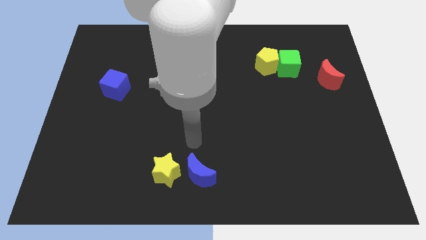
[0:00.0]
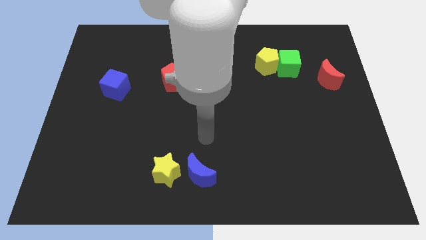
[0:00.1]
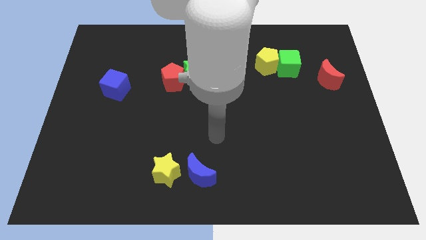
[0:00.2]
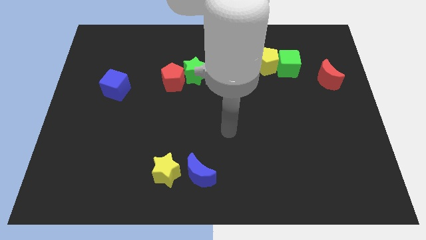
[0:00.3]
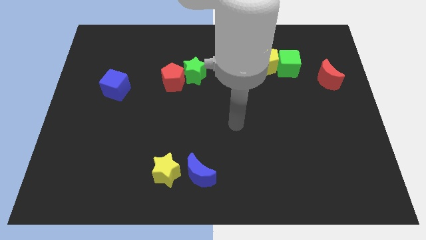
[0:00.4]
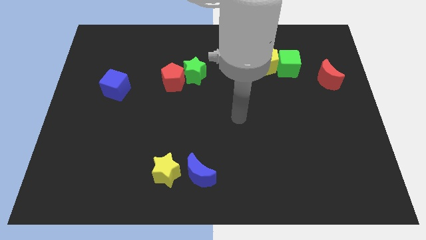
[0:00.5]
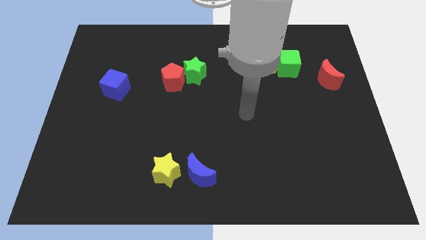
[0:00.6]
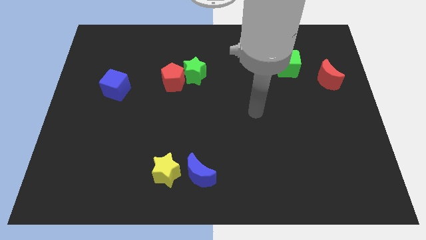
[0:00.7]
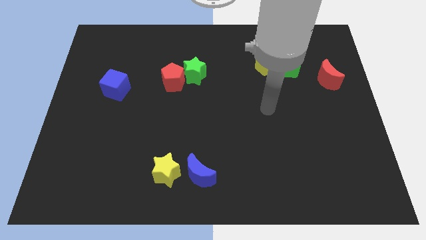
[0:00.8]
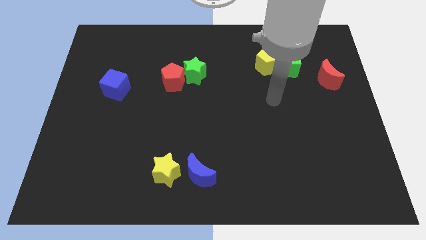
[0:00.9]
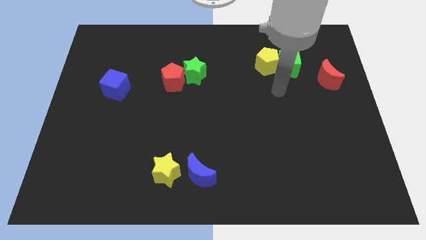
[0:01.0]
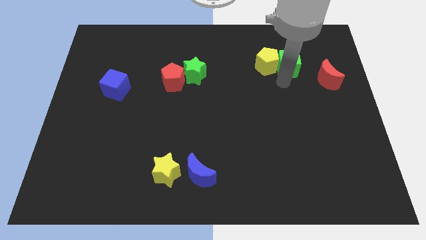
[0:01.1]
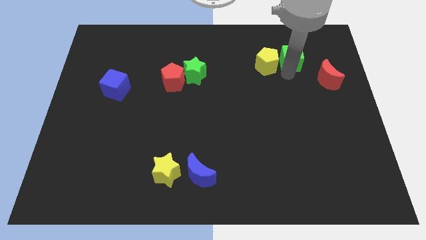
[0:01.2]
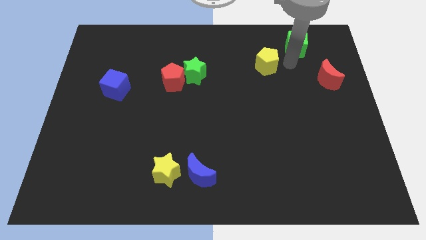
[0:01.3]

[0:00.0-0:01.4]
separate the yellow pentagon from the green cube

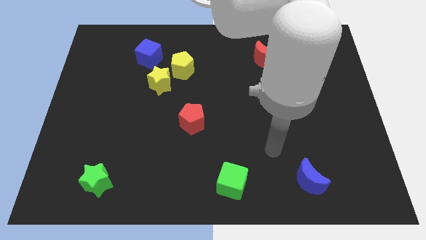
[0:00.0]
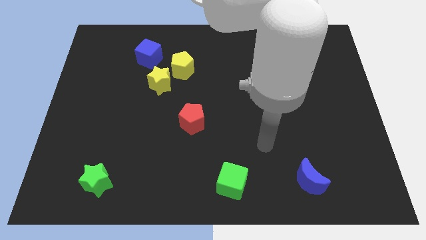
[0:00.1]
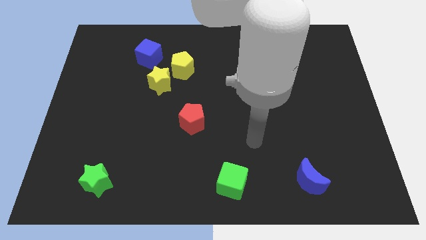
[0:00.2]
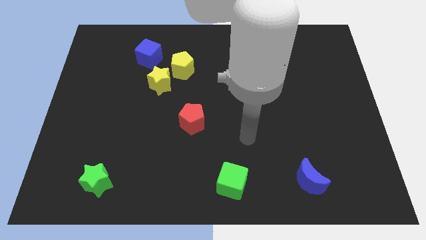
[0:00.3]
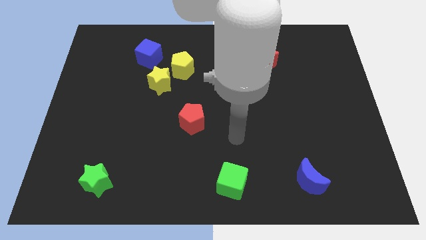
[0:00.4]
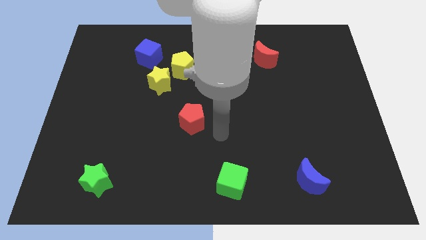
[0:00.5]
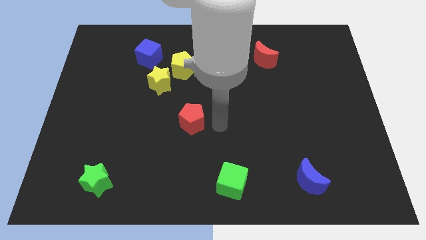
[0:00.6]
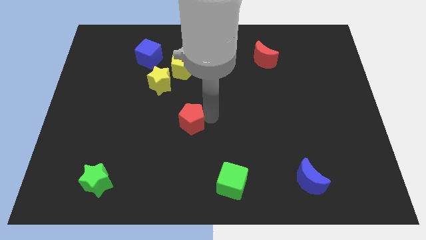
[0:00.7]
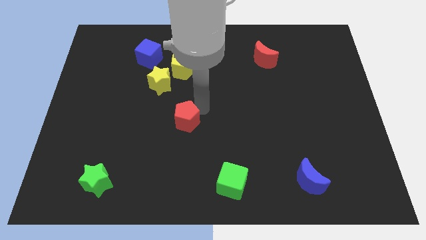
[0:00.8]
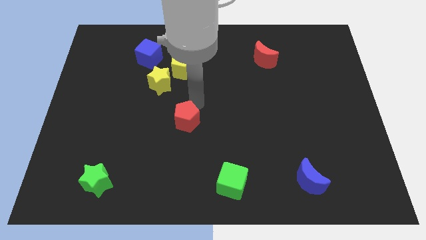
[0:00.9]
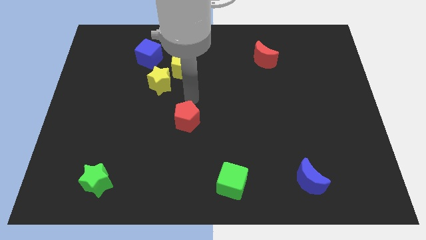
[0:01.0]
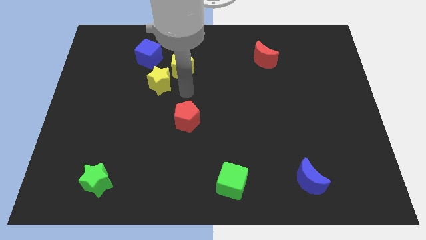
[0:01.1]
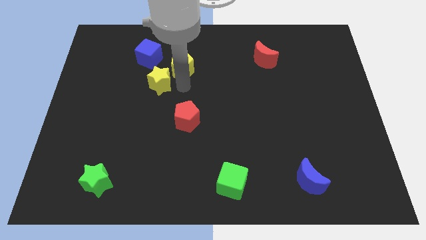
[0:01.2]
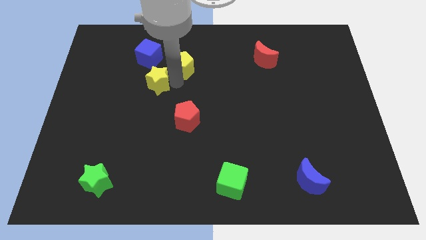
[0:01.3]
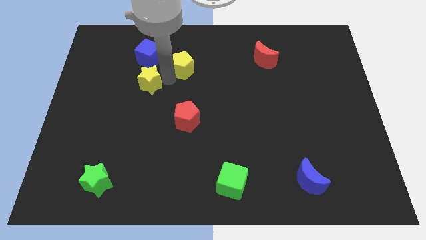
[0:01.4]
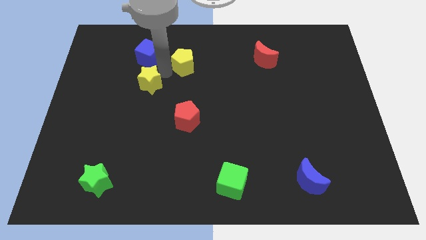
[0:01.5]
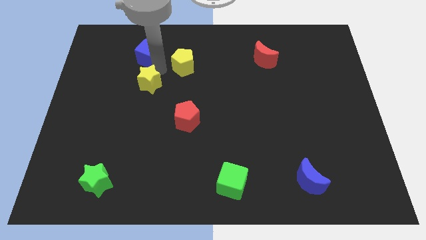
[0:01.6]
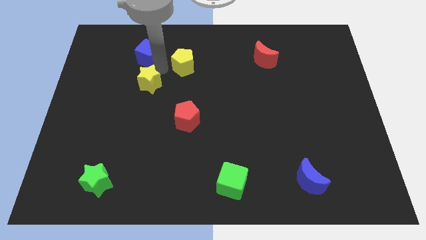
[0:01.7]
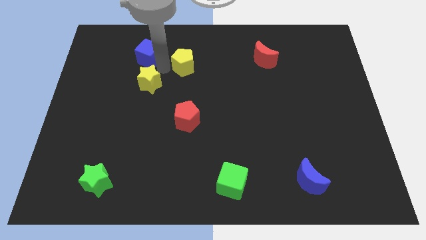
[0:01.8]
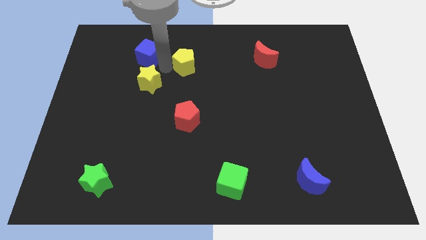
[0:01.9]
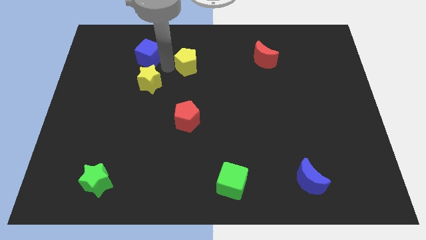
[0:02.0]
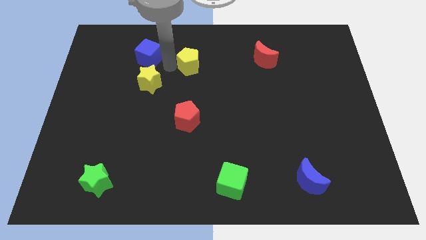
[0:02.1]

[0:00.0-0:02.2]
separate the yellow pentagon from the yellow star and blue cube

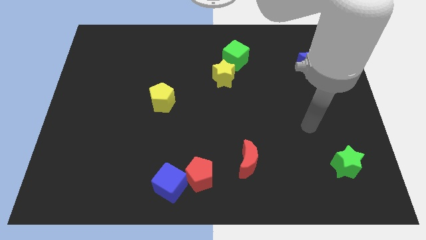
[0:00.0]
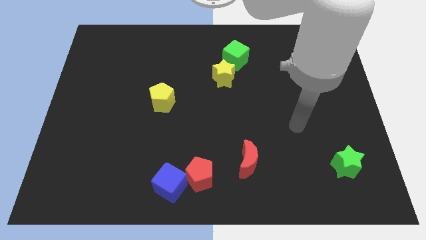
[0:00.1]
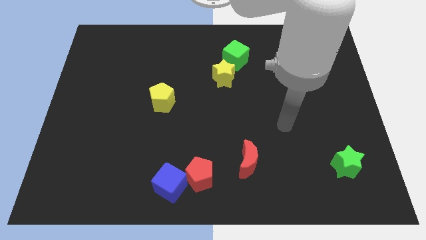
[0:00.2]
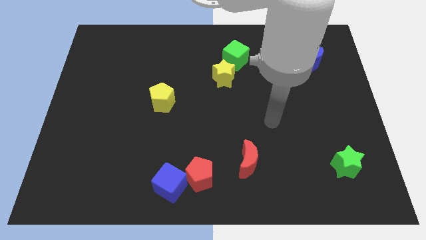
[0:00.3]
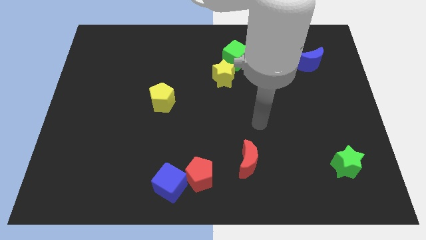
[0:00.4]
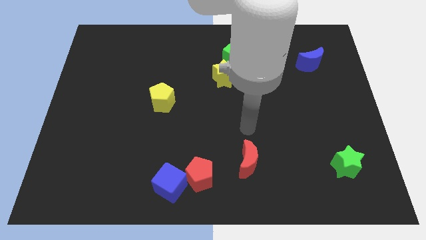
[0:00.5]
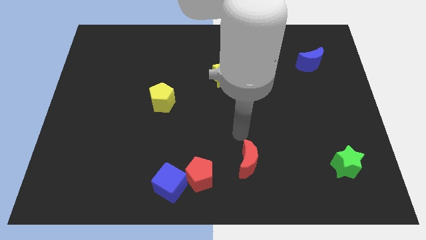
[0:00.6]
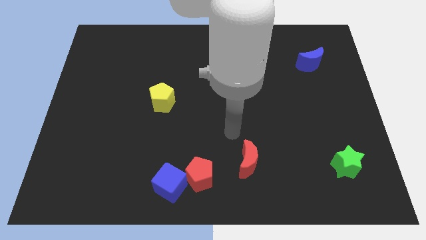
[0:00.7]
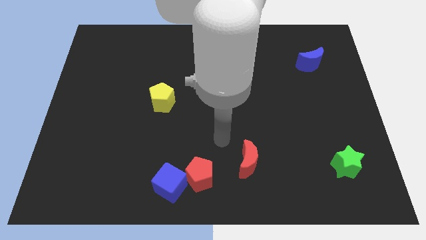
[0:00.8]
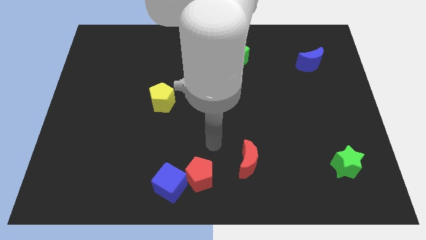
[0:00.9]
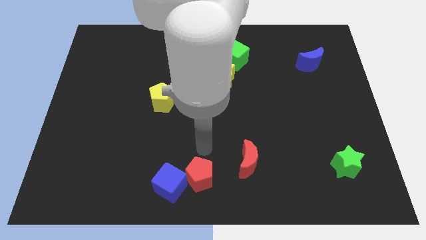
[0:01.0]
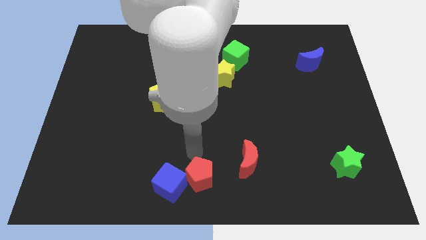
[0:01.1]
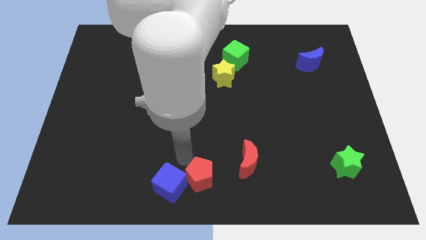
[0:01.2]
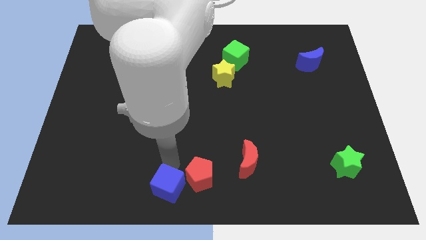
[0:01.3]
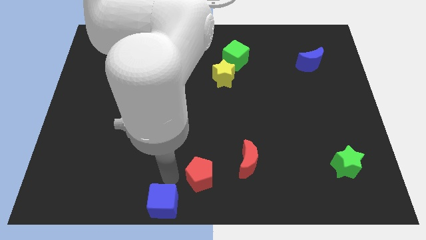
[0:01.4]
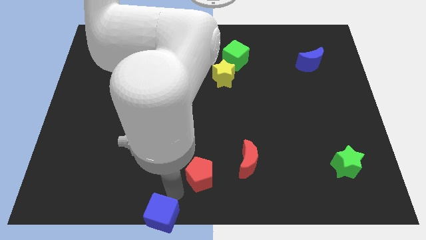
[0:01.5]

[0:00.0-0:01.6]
pull the red pentagon apart from the blue cube

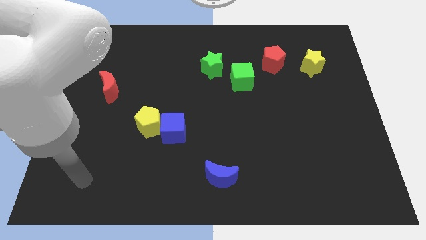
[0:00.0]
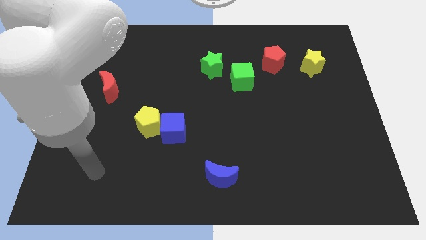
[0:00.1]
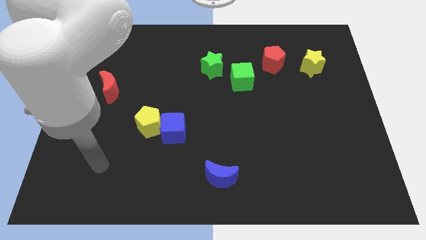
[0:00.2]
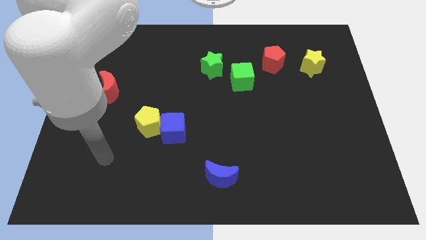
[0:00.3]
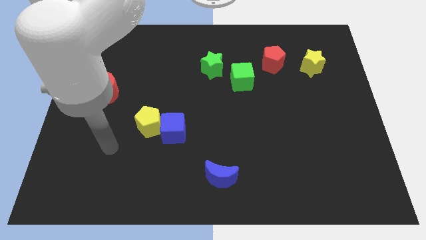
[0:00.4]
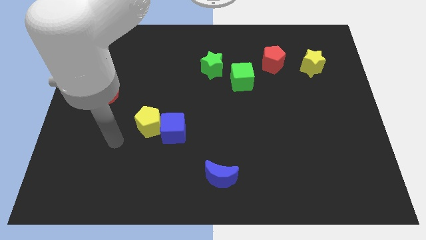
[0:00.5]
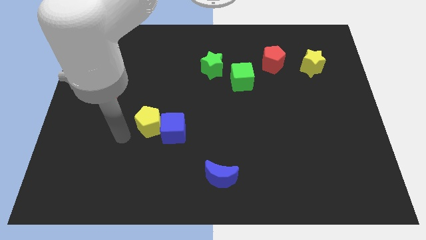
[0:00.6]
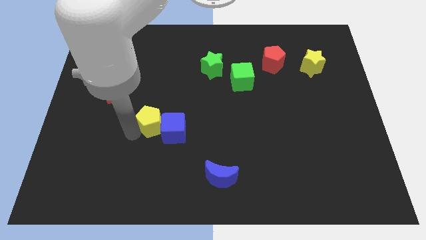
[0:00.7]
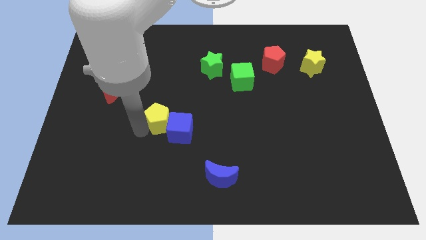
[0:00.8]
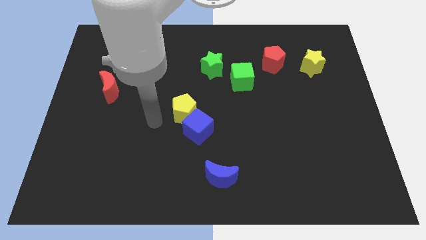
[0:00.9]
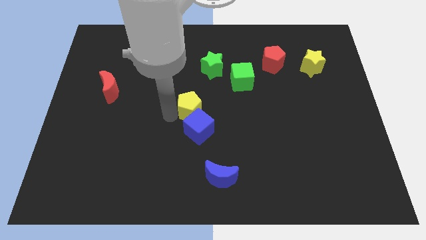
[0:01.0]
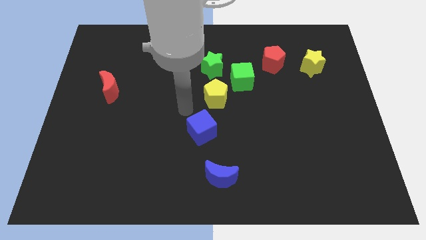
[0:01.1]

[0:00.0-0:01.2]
move the blue cube away from the yellow pentagon

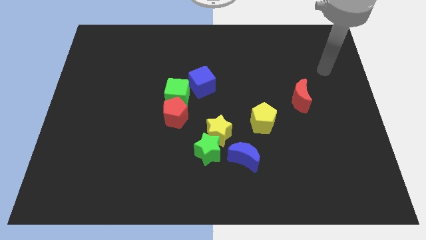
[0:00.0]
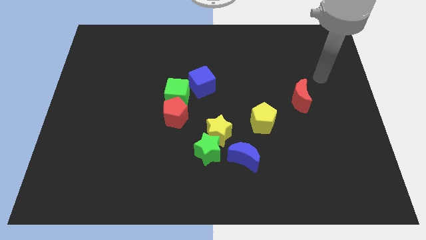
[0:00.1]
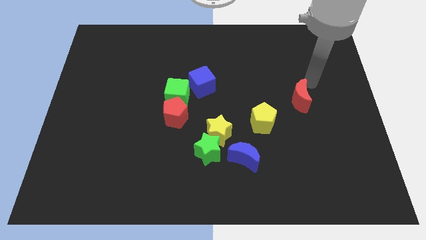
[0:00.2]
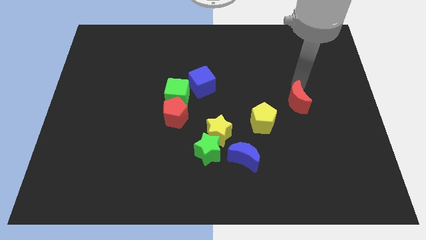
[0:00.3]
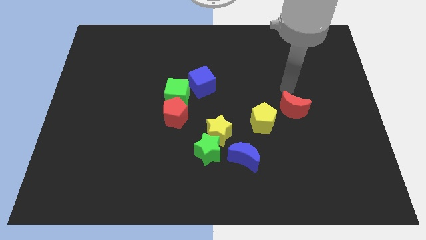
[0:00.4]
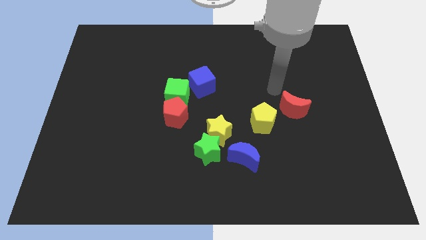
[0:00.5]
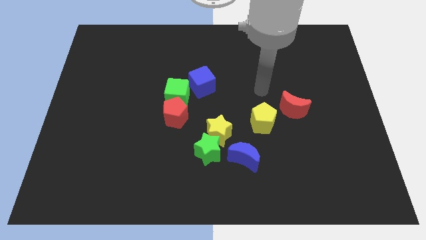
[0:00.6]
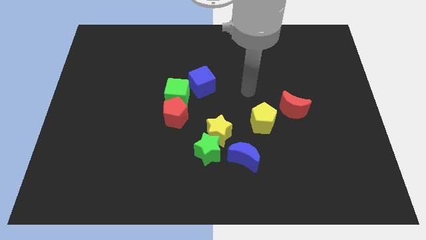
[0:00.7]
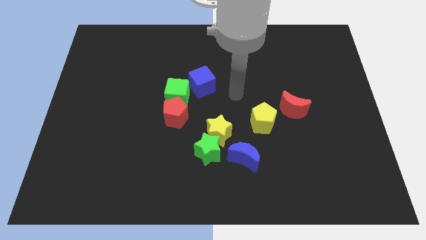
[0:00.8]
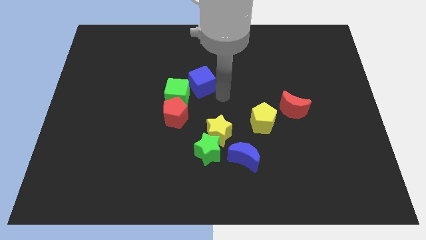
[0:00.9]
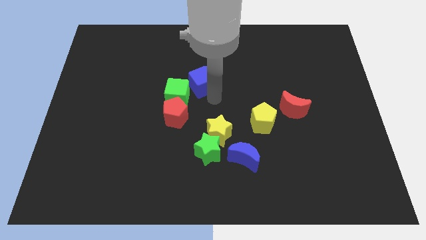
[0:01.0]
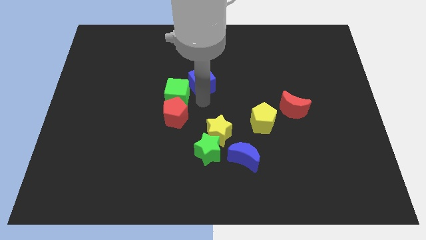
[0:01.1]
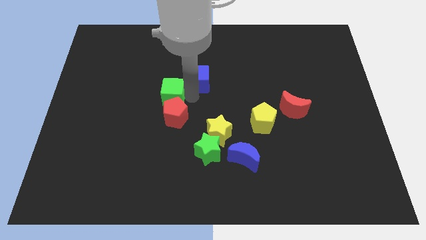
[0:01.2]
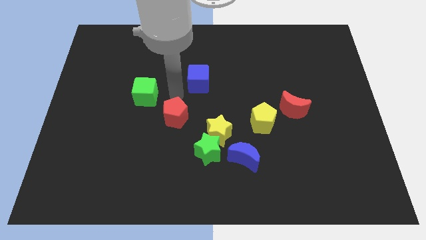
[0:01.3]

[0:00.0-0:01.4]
separate the red pentagon from the green cube

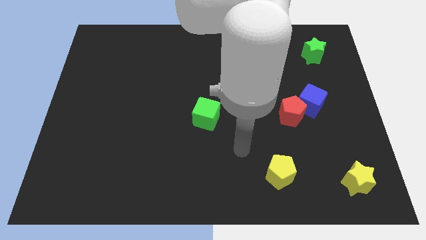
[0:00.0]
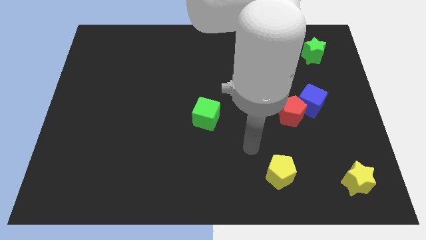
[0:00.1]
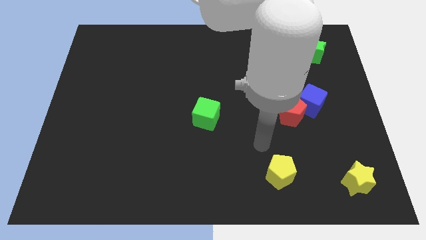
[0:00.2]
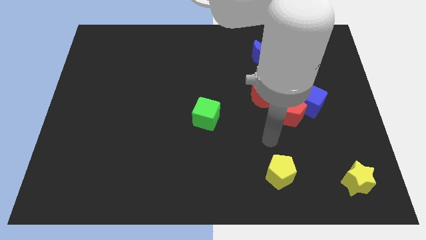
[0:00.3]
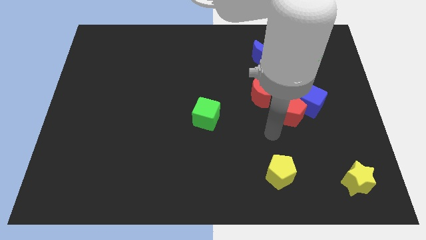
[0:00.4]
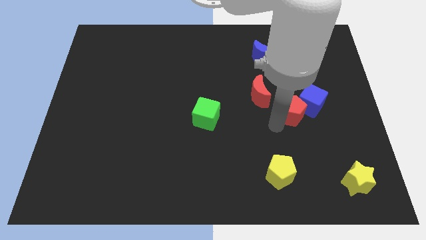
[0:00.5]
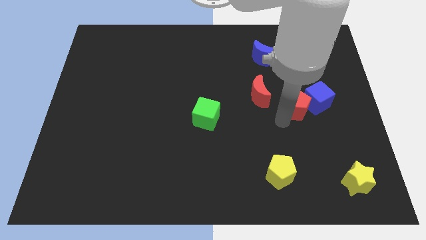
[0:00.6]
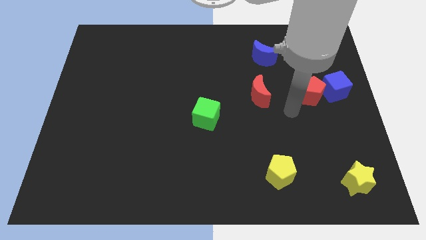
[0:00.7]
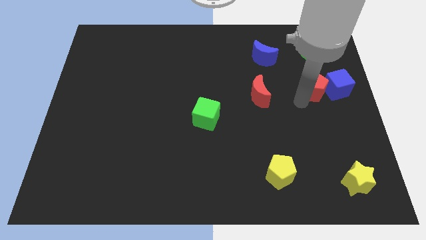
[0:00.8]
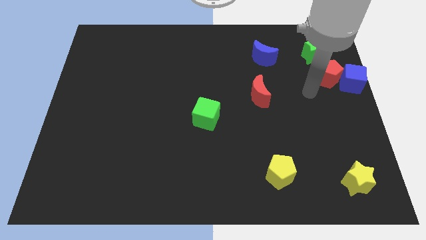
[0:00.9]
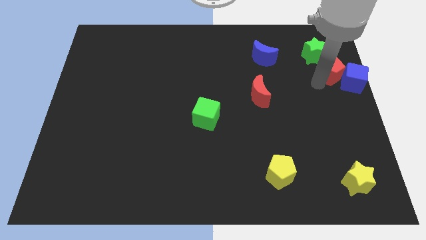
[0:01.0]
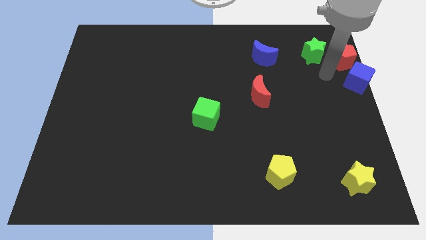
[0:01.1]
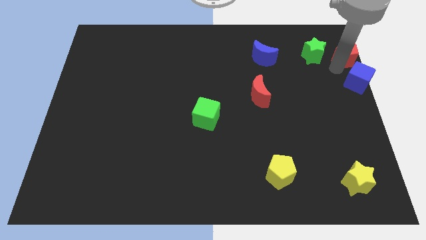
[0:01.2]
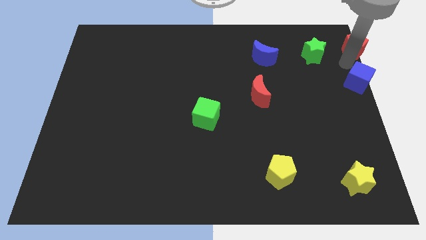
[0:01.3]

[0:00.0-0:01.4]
move the blue cube away from the red pentagon
